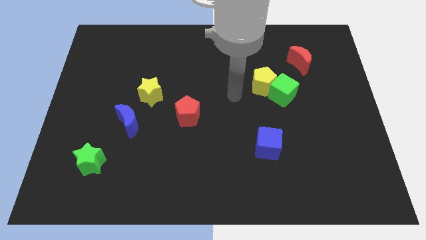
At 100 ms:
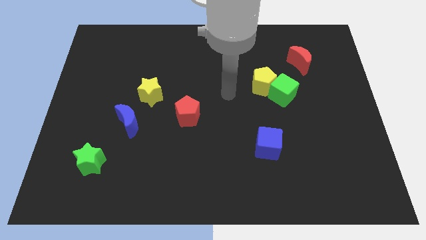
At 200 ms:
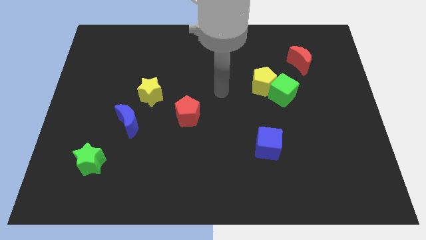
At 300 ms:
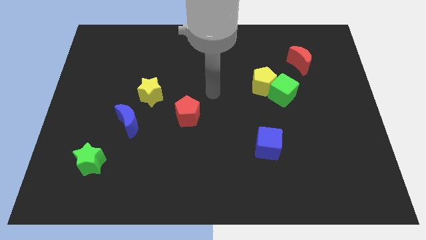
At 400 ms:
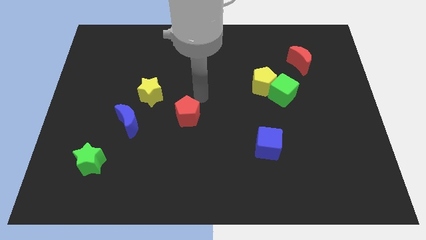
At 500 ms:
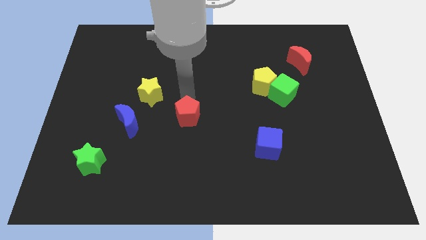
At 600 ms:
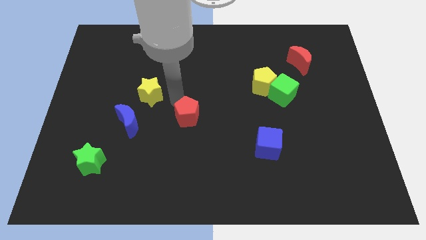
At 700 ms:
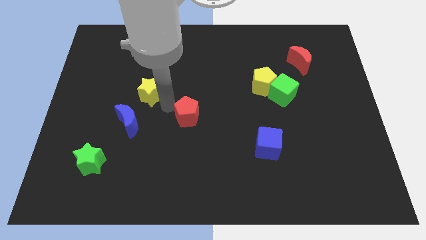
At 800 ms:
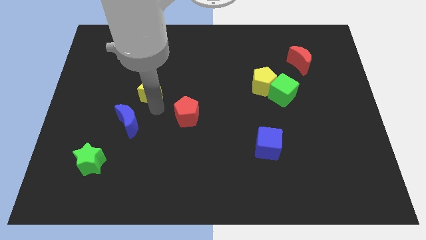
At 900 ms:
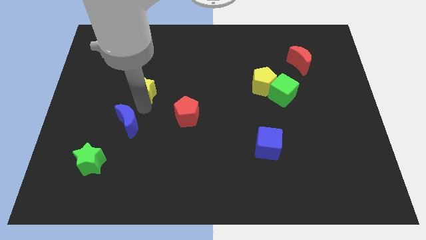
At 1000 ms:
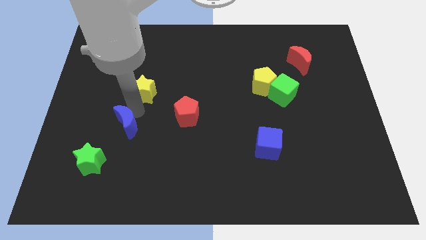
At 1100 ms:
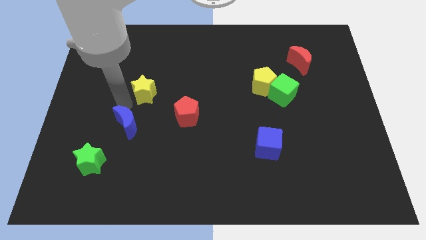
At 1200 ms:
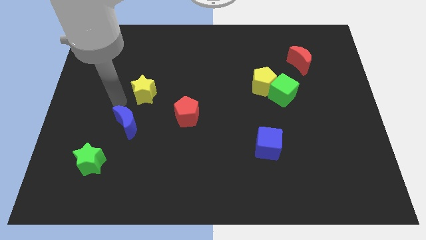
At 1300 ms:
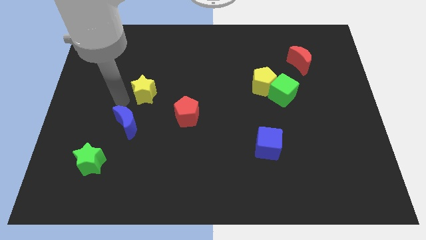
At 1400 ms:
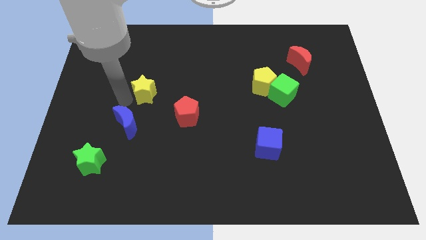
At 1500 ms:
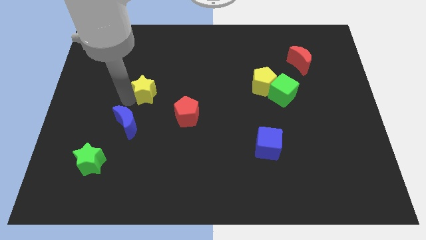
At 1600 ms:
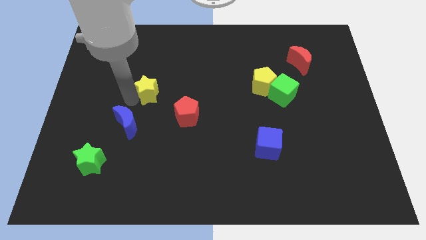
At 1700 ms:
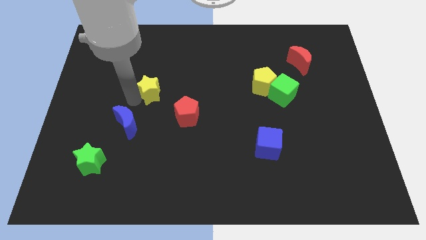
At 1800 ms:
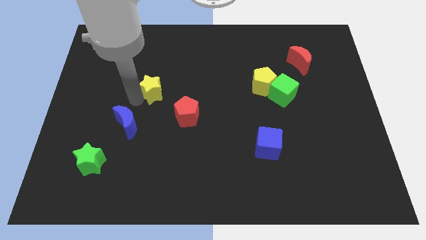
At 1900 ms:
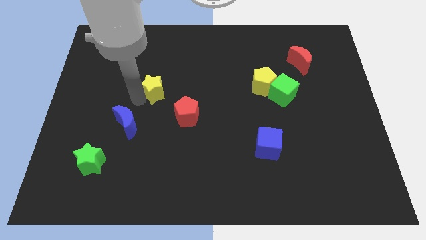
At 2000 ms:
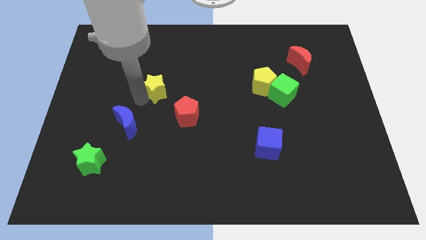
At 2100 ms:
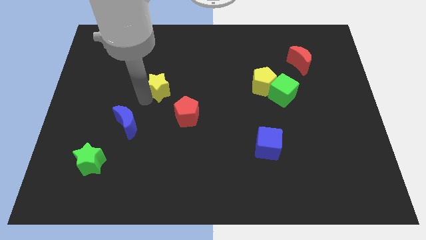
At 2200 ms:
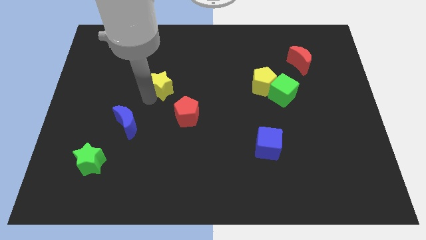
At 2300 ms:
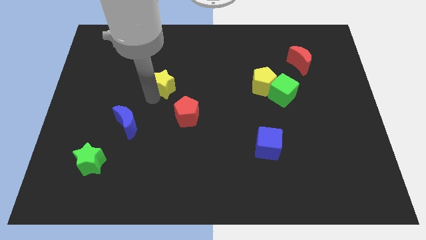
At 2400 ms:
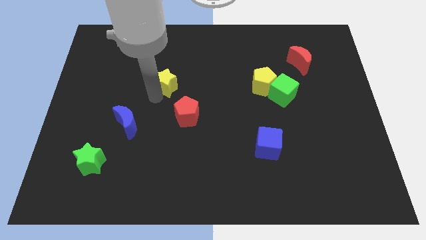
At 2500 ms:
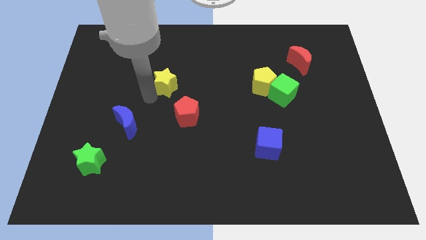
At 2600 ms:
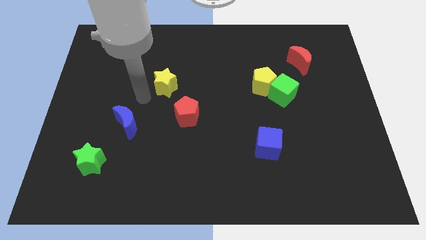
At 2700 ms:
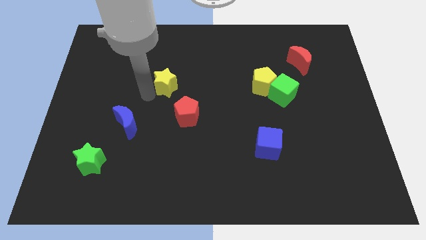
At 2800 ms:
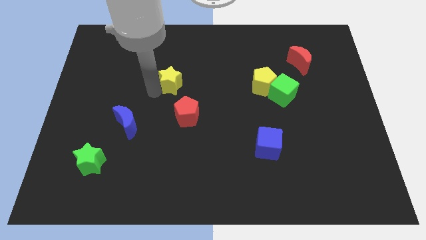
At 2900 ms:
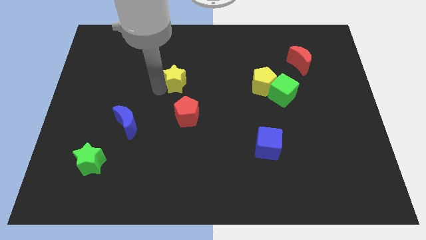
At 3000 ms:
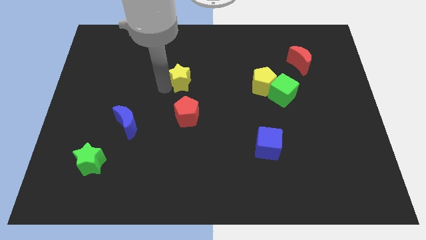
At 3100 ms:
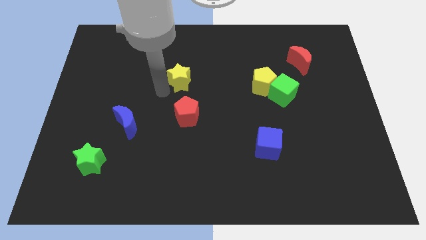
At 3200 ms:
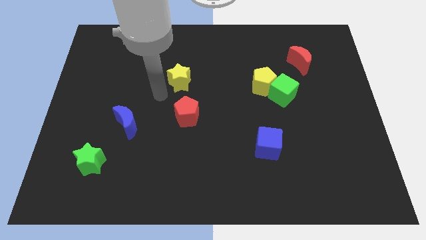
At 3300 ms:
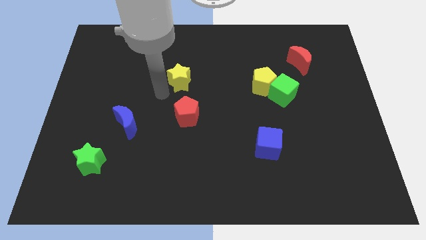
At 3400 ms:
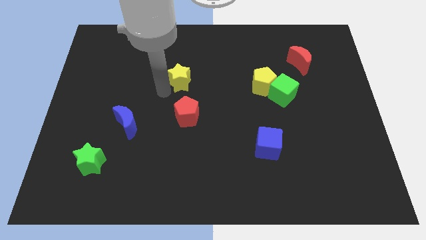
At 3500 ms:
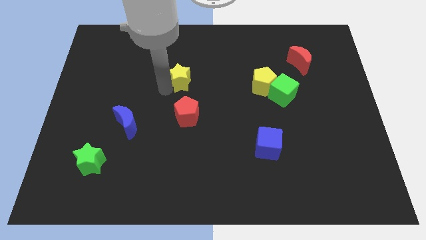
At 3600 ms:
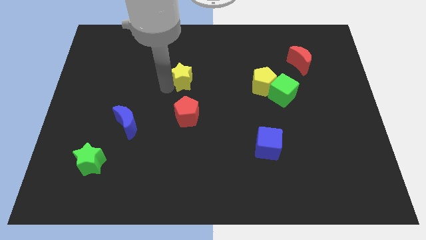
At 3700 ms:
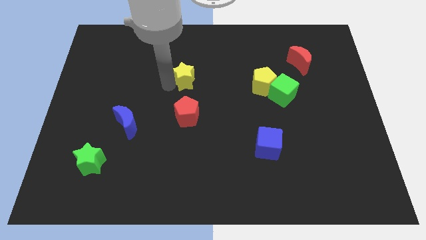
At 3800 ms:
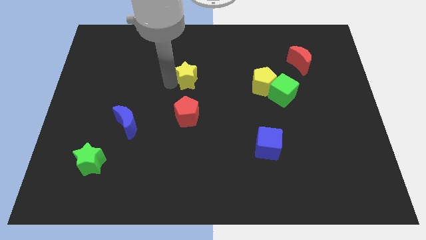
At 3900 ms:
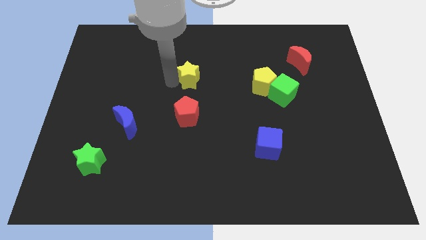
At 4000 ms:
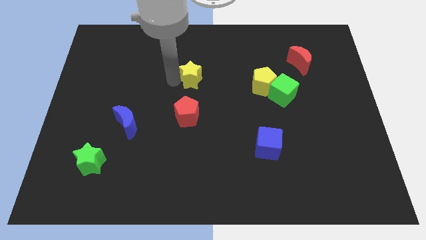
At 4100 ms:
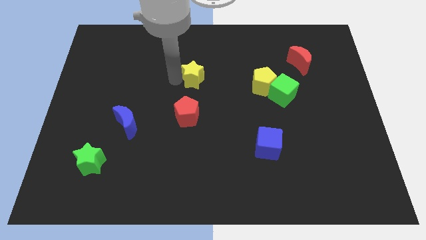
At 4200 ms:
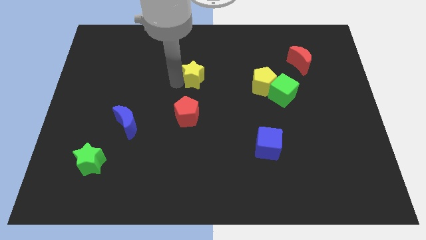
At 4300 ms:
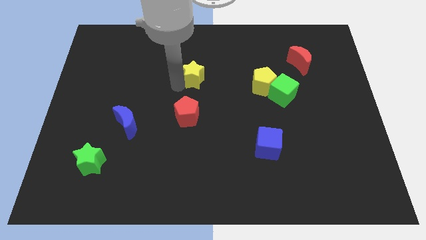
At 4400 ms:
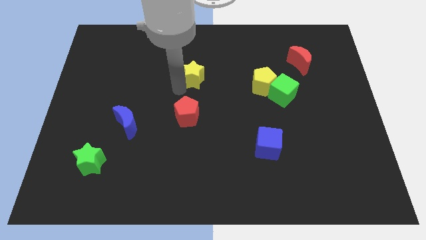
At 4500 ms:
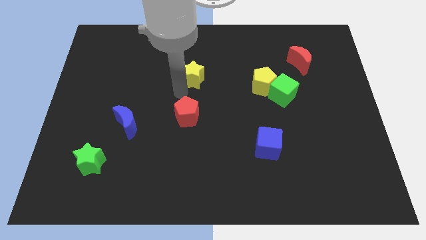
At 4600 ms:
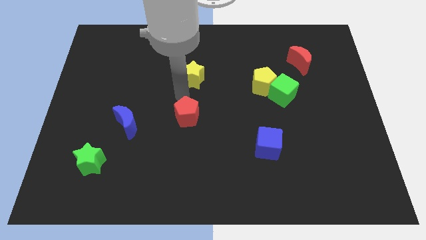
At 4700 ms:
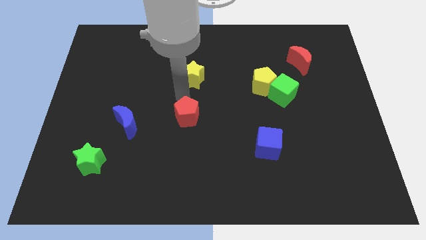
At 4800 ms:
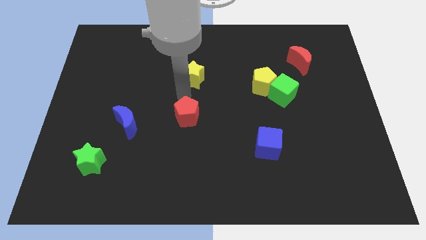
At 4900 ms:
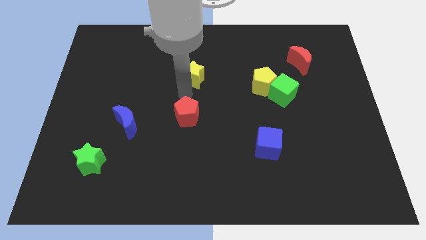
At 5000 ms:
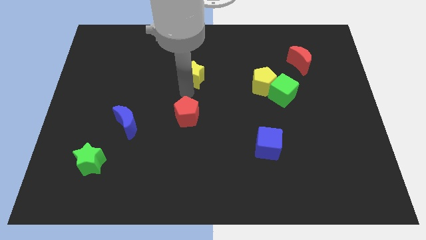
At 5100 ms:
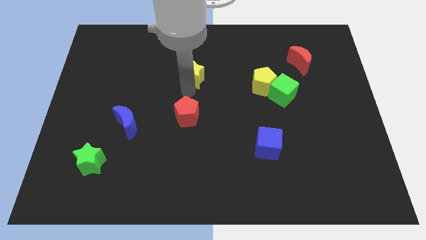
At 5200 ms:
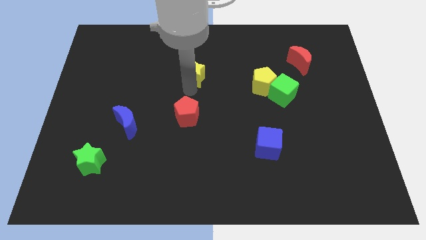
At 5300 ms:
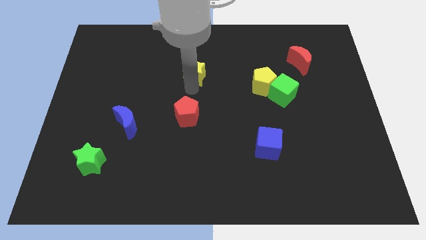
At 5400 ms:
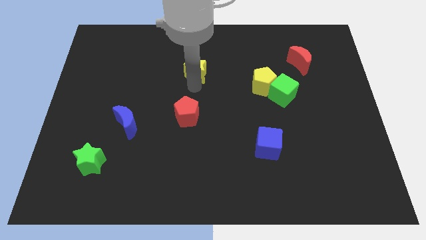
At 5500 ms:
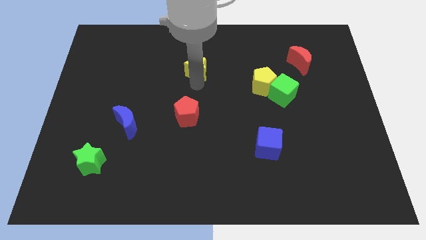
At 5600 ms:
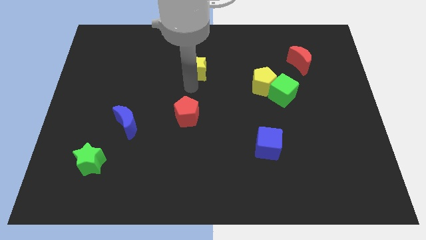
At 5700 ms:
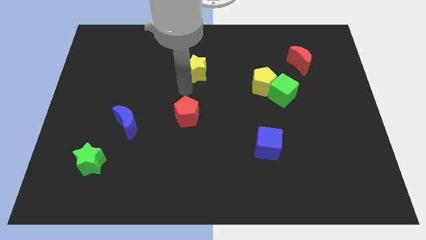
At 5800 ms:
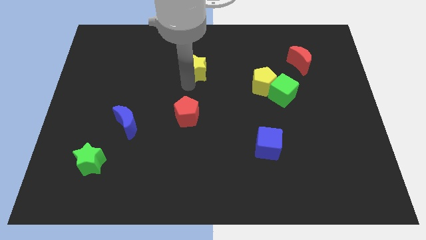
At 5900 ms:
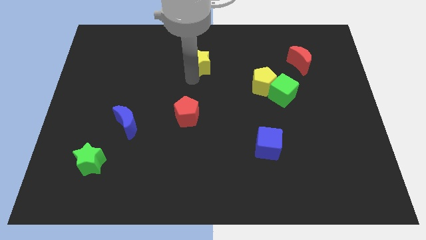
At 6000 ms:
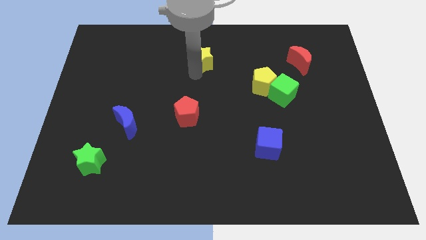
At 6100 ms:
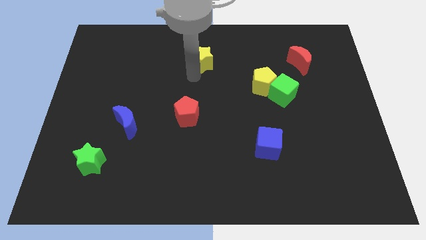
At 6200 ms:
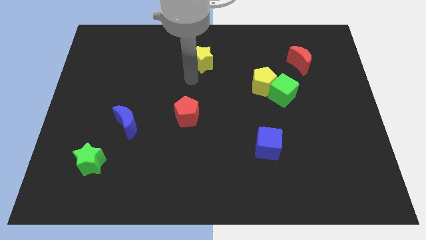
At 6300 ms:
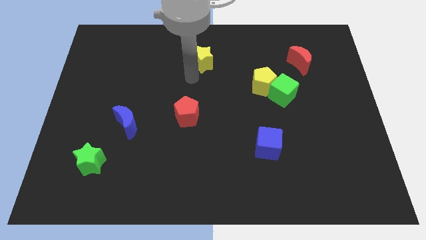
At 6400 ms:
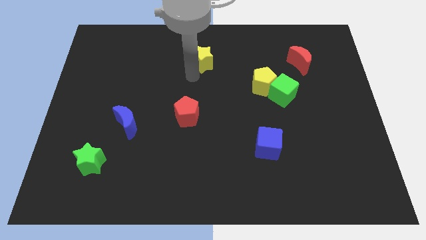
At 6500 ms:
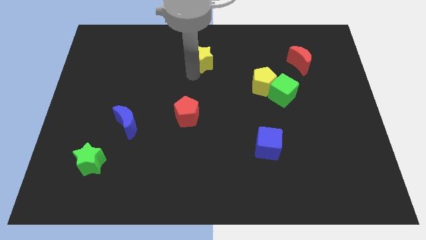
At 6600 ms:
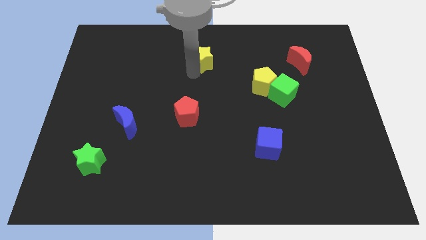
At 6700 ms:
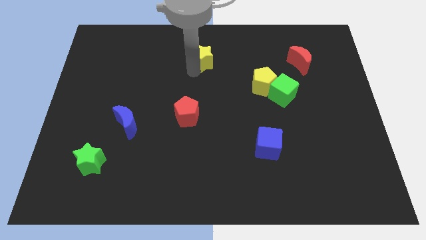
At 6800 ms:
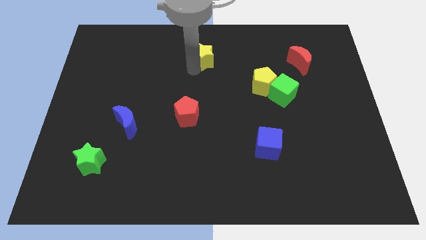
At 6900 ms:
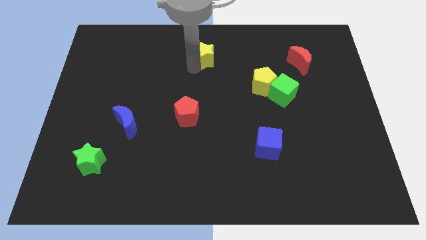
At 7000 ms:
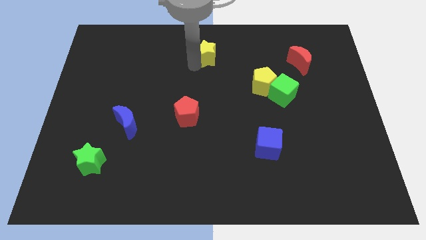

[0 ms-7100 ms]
push the yellow star to the top side
